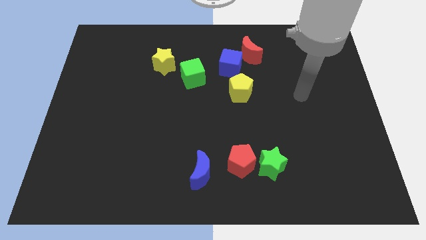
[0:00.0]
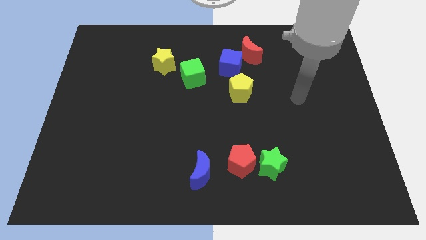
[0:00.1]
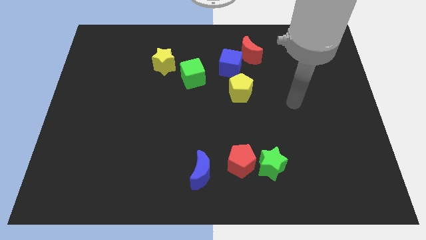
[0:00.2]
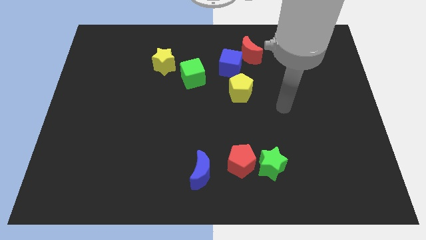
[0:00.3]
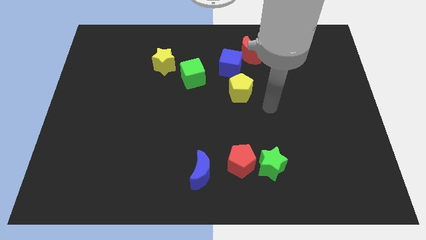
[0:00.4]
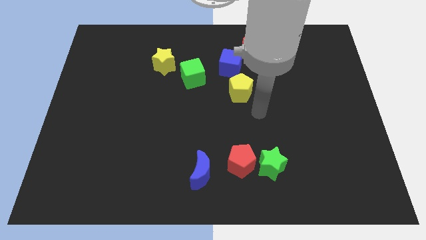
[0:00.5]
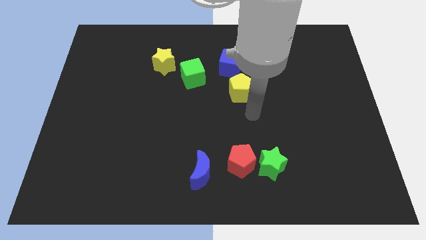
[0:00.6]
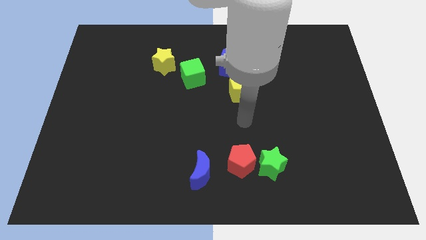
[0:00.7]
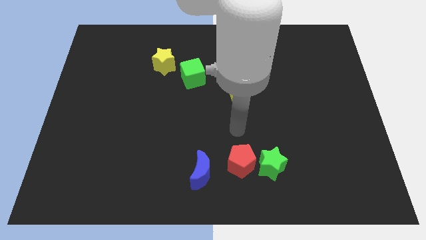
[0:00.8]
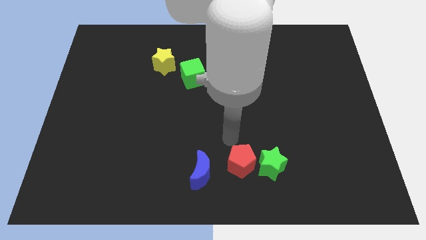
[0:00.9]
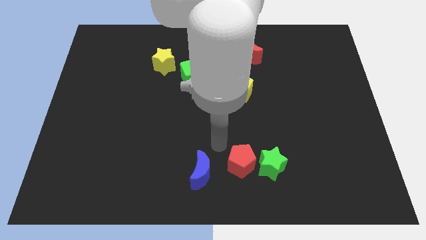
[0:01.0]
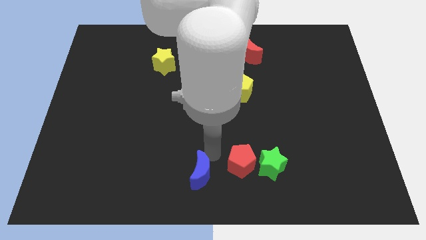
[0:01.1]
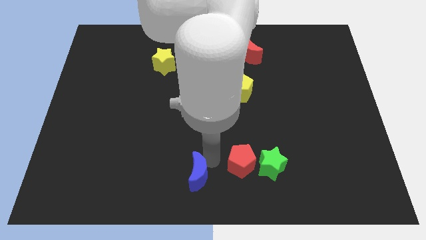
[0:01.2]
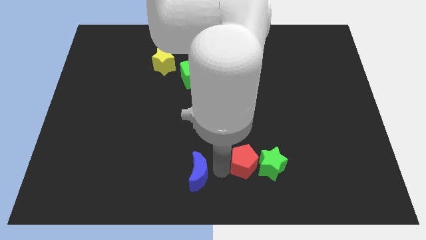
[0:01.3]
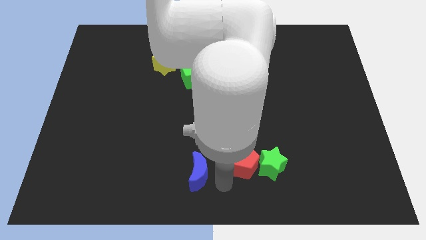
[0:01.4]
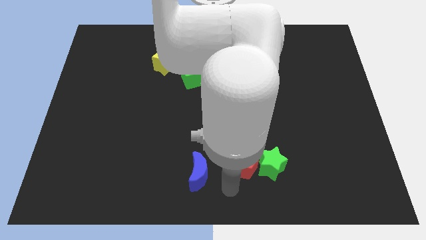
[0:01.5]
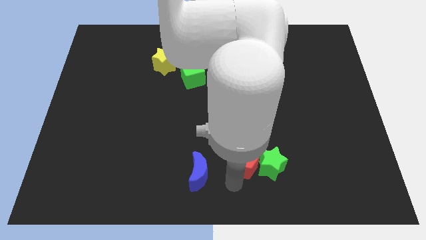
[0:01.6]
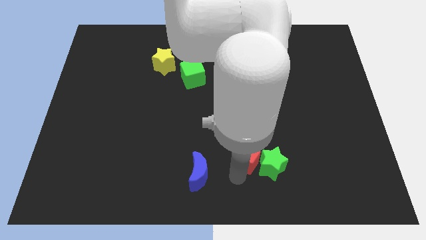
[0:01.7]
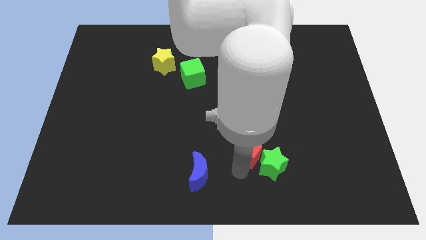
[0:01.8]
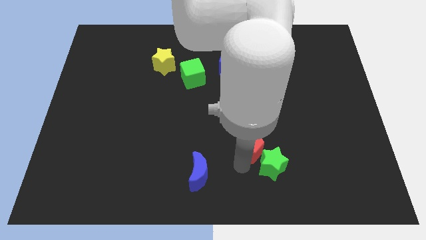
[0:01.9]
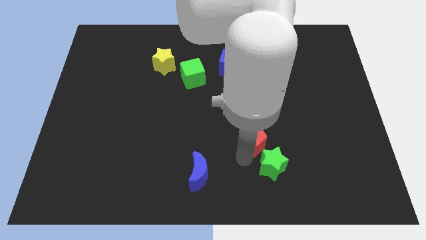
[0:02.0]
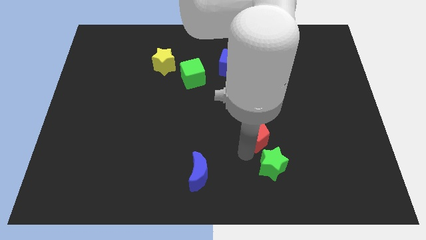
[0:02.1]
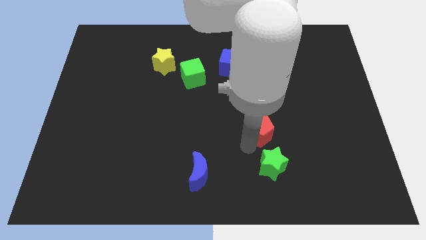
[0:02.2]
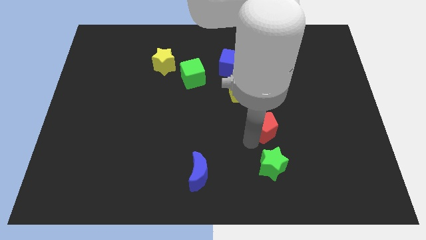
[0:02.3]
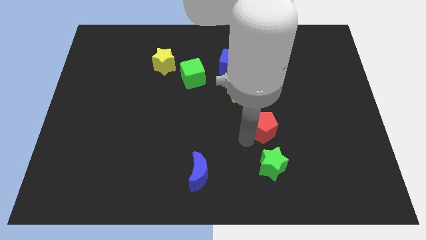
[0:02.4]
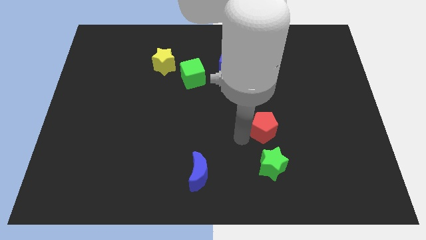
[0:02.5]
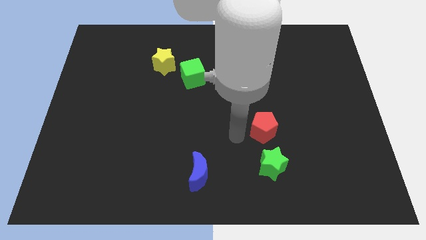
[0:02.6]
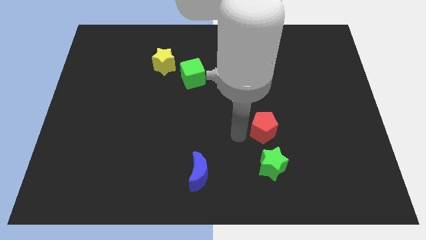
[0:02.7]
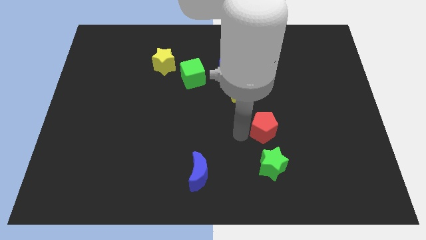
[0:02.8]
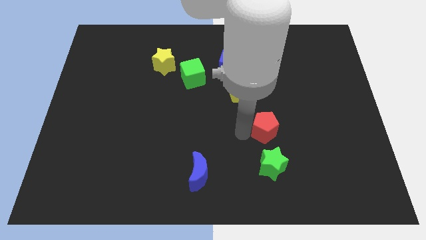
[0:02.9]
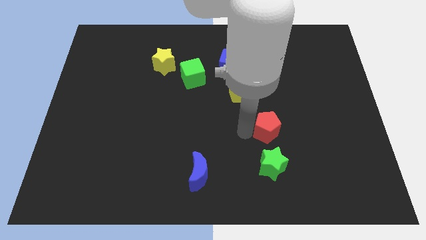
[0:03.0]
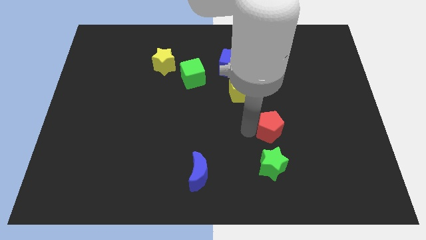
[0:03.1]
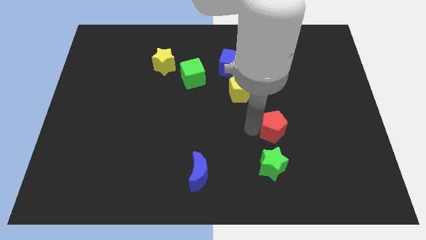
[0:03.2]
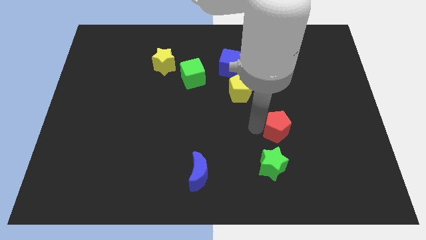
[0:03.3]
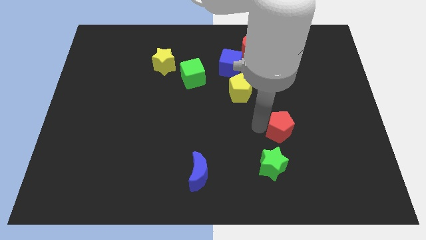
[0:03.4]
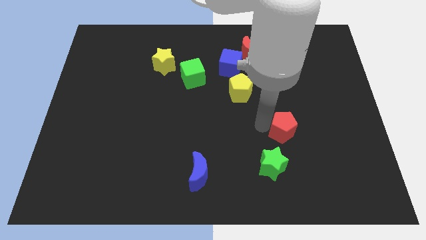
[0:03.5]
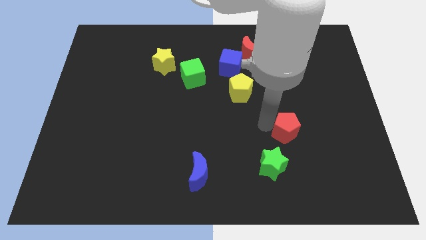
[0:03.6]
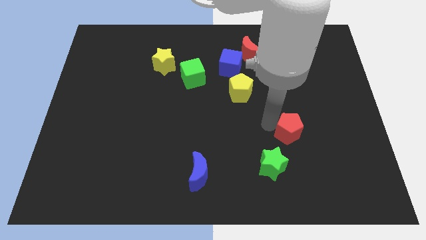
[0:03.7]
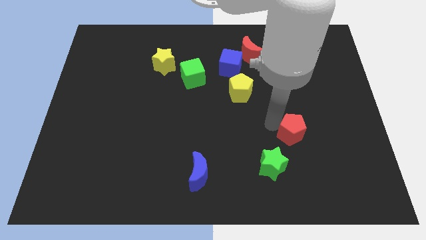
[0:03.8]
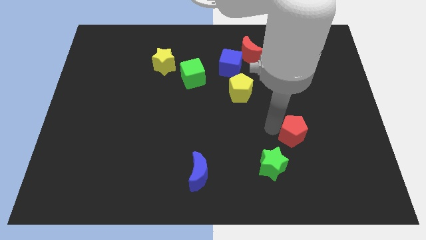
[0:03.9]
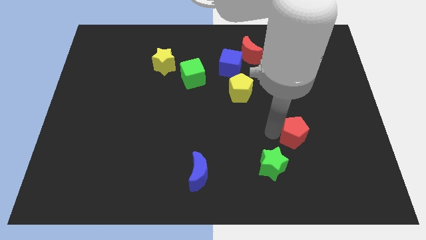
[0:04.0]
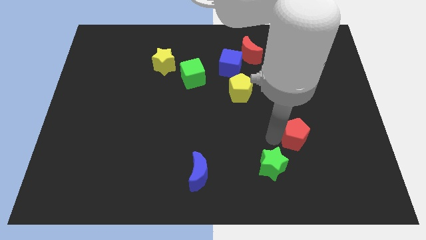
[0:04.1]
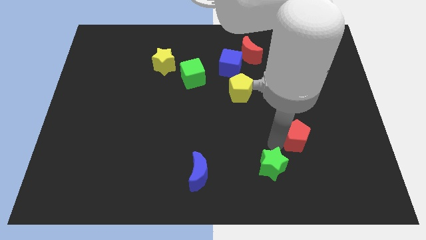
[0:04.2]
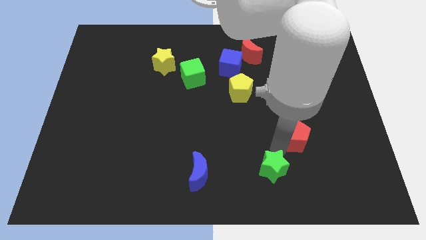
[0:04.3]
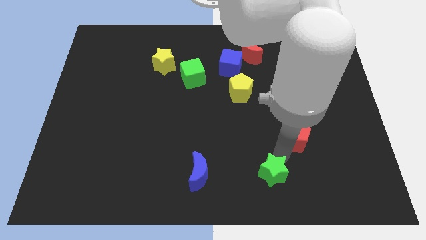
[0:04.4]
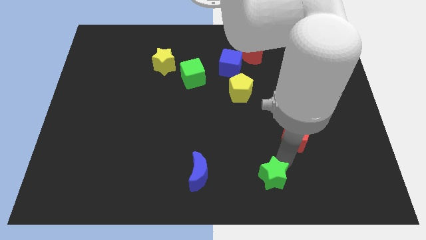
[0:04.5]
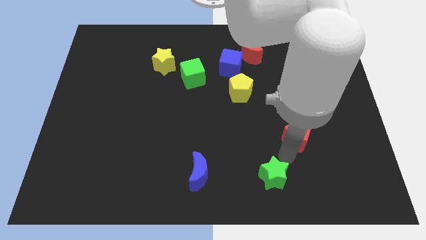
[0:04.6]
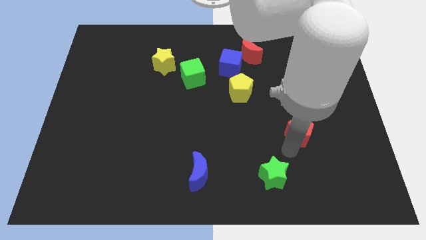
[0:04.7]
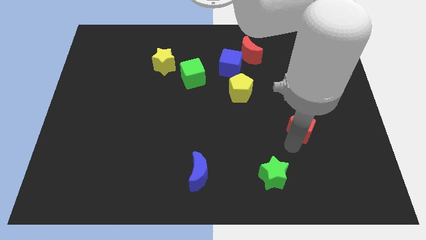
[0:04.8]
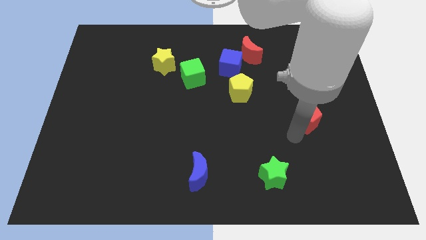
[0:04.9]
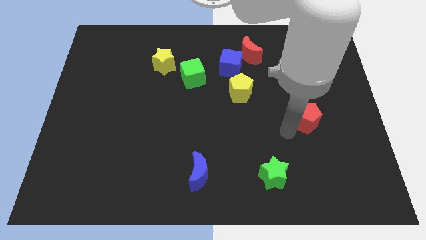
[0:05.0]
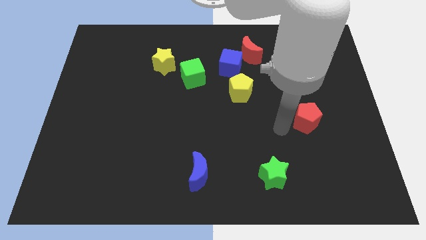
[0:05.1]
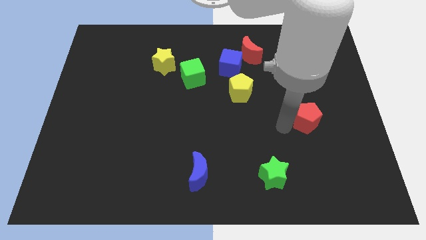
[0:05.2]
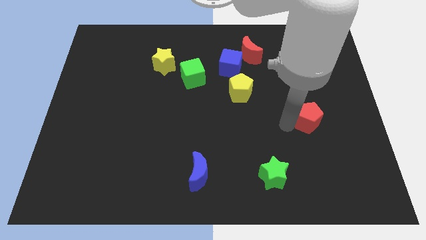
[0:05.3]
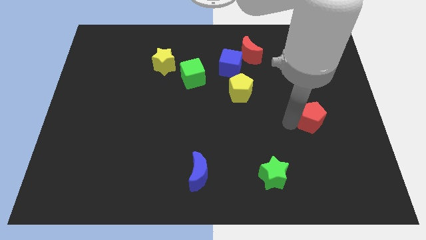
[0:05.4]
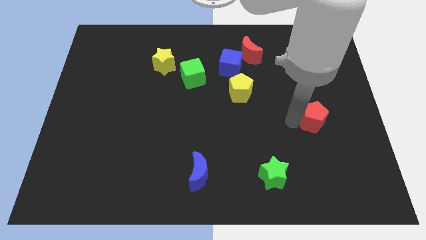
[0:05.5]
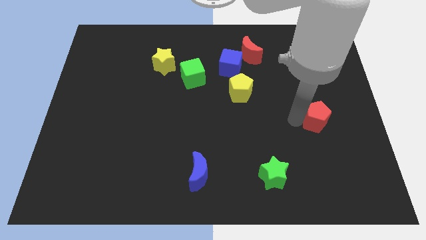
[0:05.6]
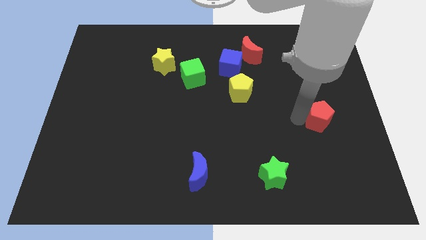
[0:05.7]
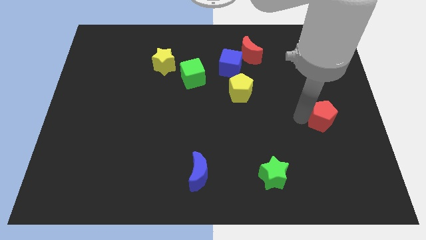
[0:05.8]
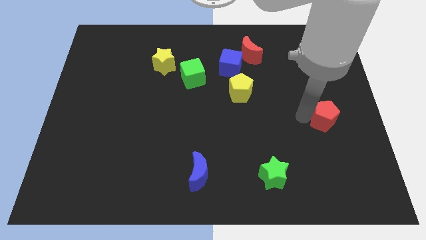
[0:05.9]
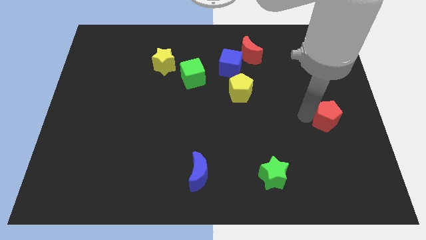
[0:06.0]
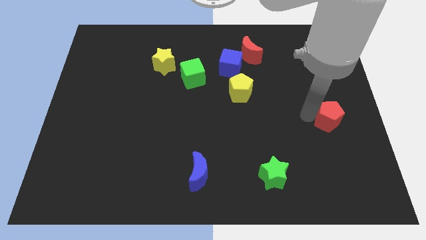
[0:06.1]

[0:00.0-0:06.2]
move the red pentagon to the right side

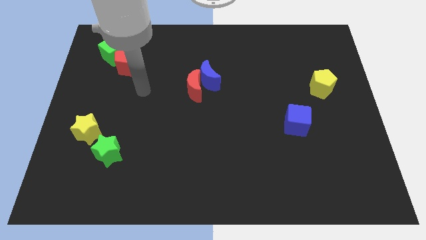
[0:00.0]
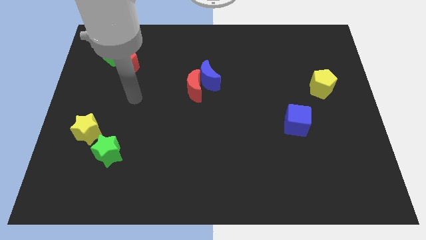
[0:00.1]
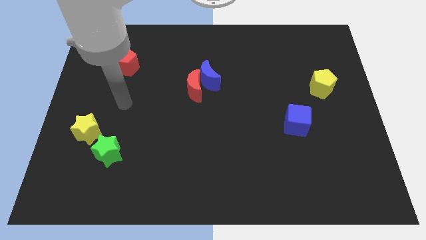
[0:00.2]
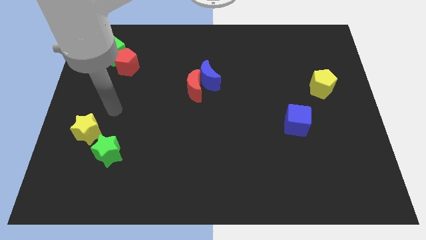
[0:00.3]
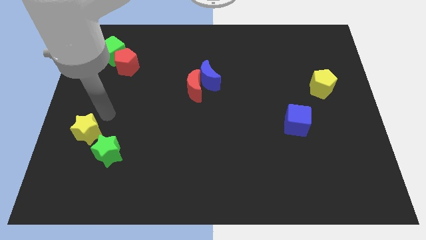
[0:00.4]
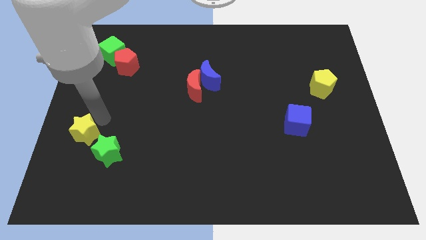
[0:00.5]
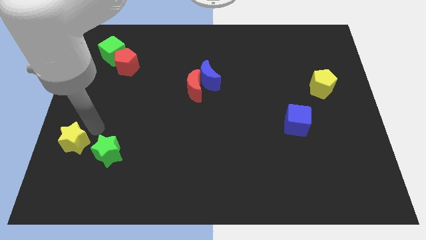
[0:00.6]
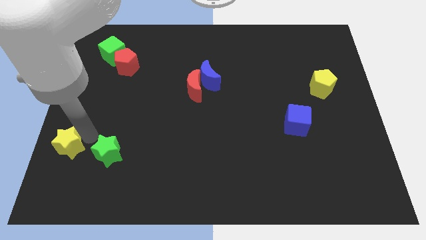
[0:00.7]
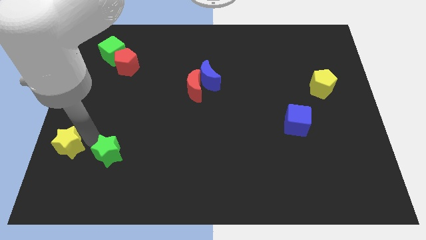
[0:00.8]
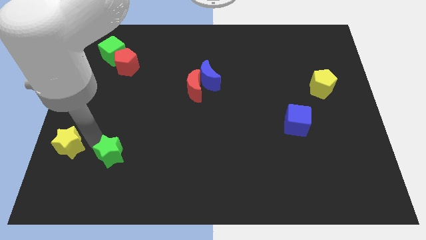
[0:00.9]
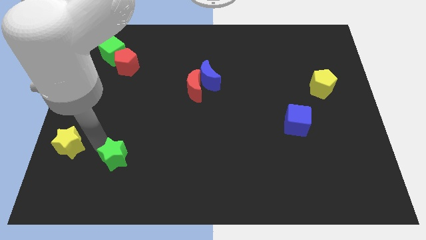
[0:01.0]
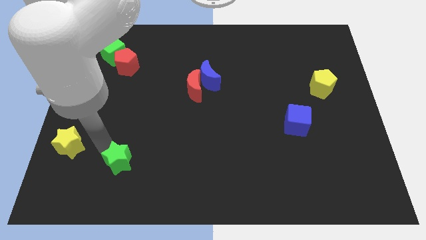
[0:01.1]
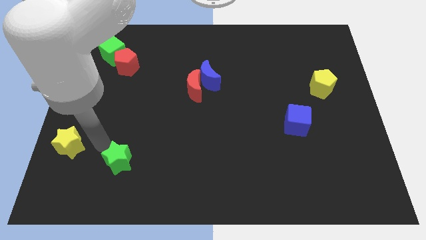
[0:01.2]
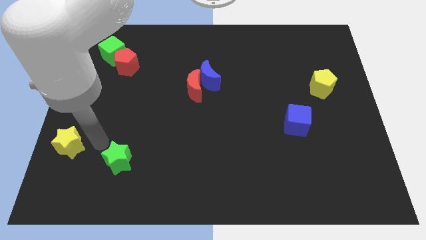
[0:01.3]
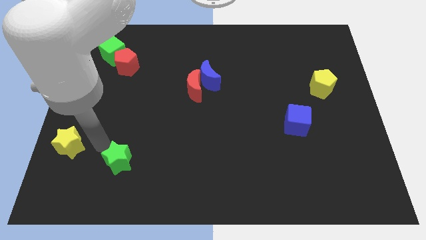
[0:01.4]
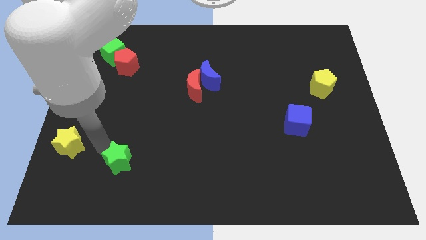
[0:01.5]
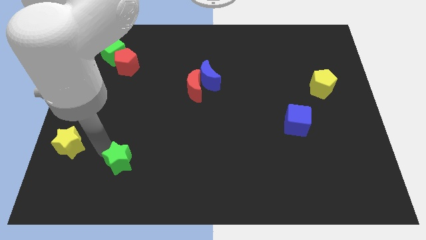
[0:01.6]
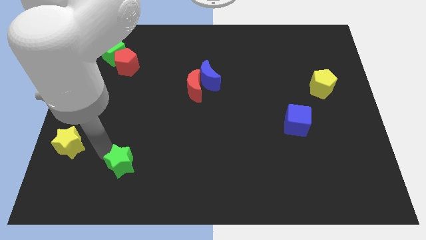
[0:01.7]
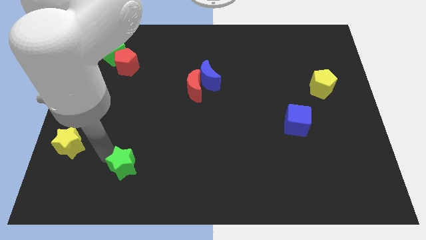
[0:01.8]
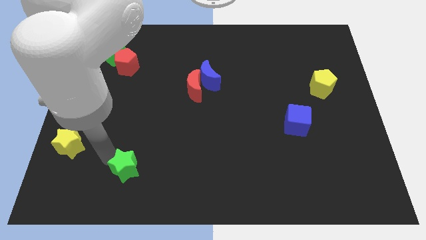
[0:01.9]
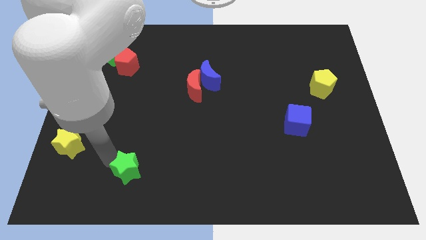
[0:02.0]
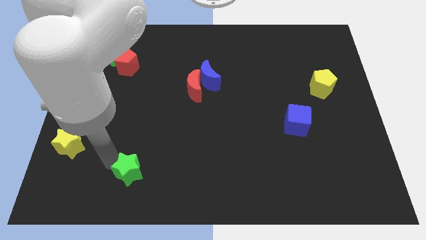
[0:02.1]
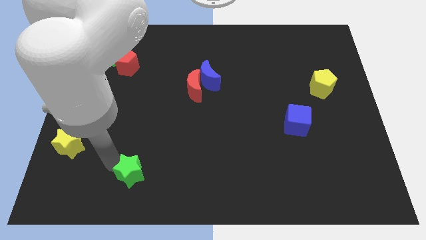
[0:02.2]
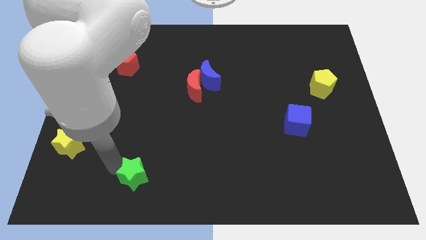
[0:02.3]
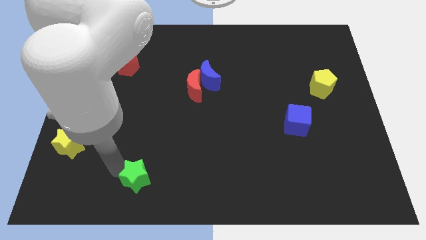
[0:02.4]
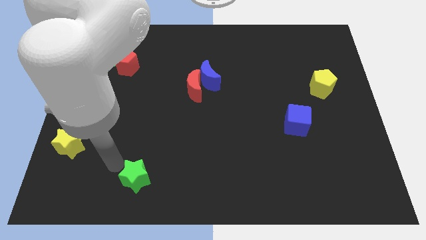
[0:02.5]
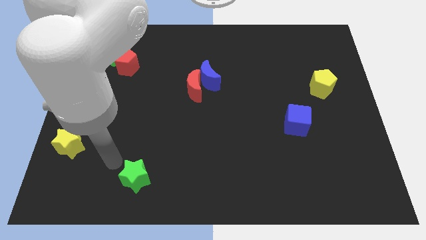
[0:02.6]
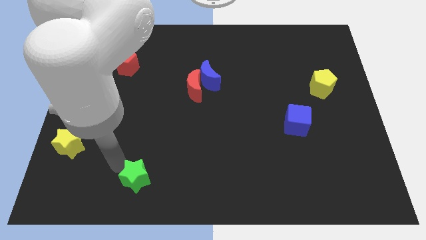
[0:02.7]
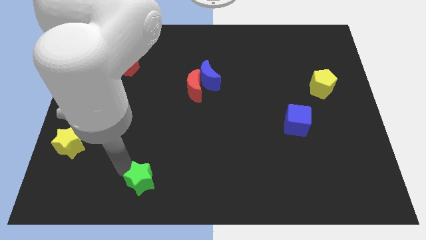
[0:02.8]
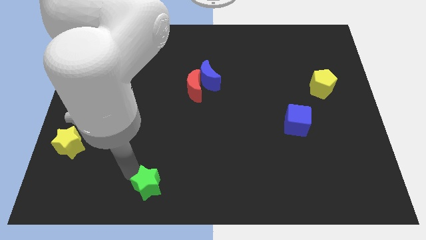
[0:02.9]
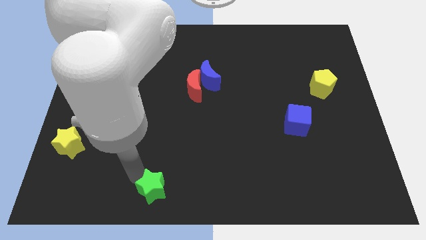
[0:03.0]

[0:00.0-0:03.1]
push the green star to the bottom side
